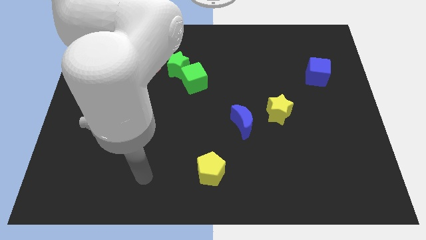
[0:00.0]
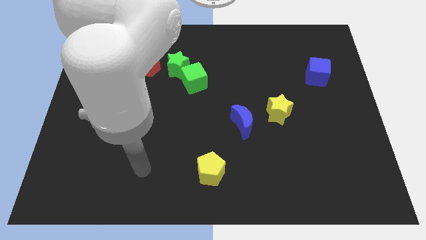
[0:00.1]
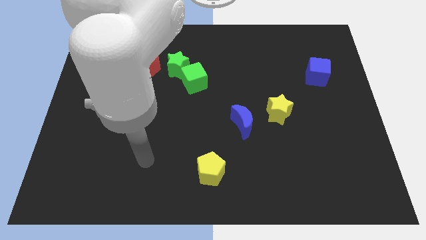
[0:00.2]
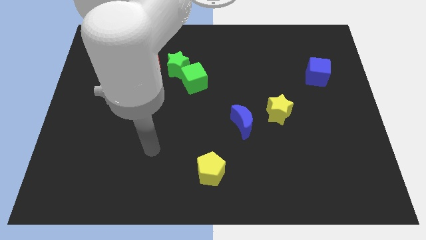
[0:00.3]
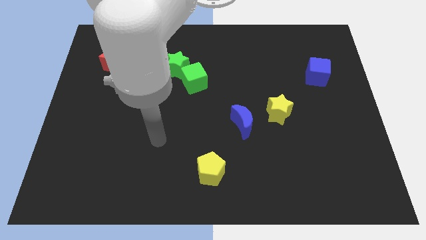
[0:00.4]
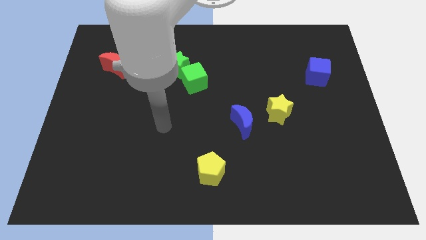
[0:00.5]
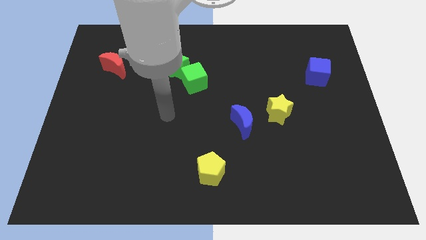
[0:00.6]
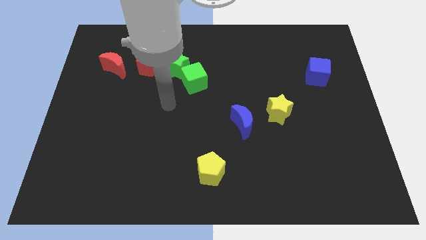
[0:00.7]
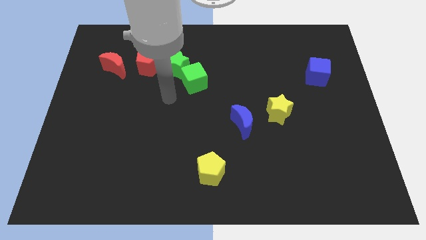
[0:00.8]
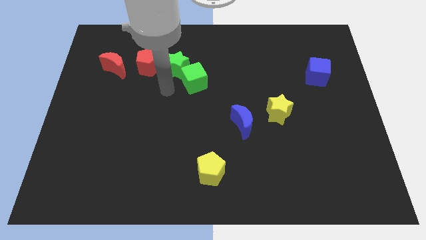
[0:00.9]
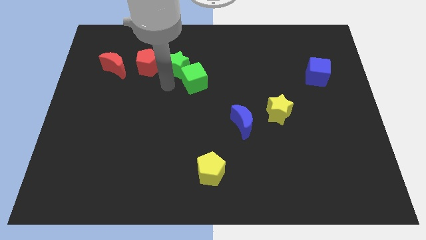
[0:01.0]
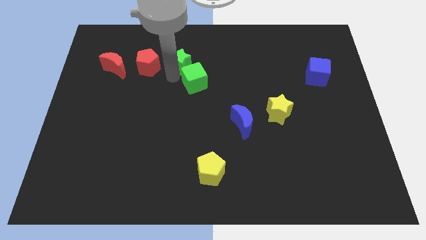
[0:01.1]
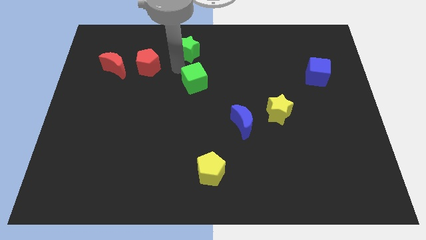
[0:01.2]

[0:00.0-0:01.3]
move the green cube away from the green star

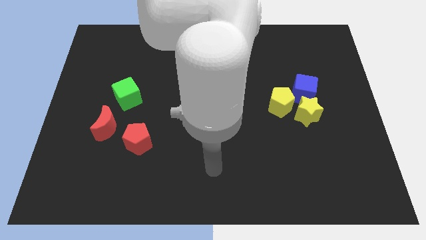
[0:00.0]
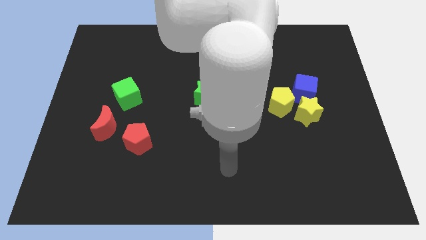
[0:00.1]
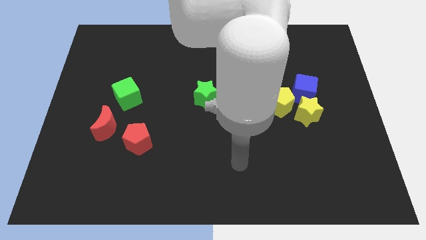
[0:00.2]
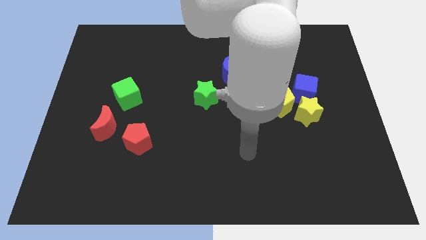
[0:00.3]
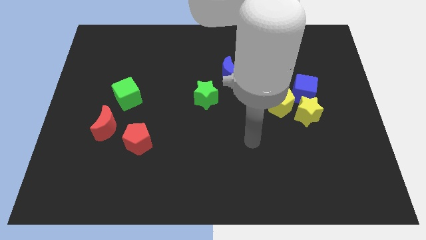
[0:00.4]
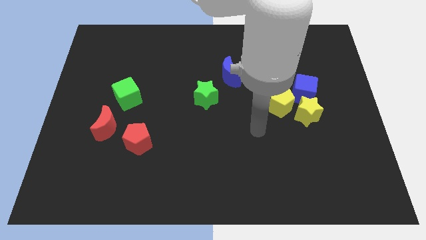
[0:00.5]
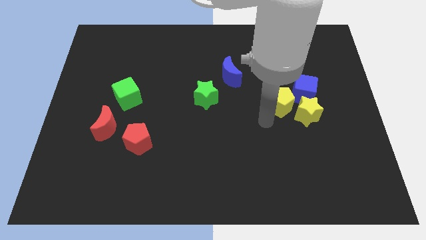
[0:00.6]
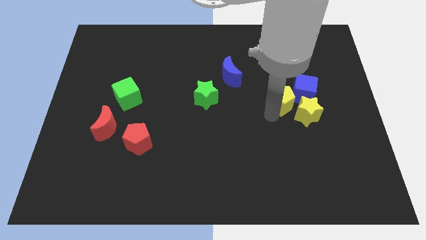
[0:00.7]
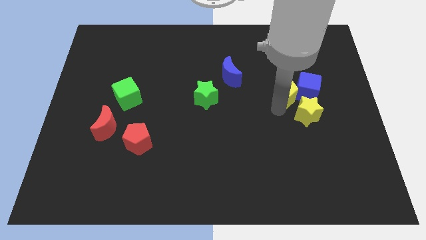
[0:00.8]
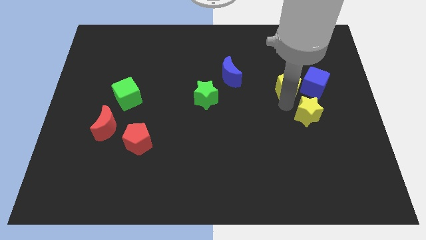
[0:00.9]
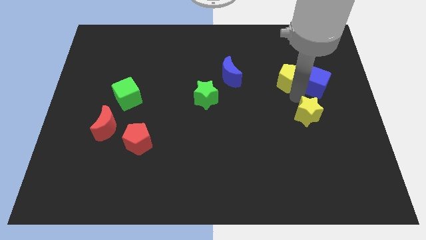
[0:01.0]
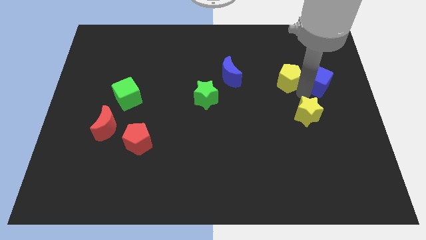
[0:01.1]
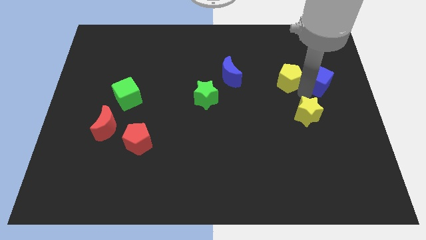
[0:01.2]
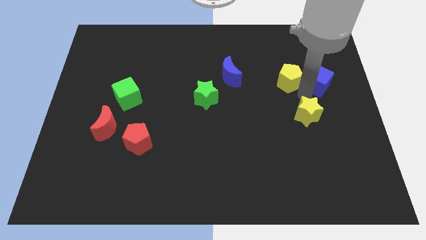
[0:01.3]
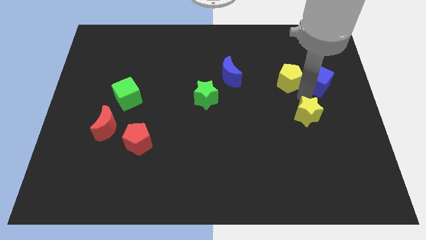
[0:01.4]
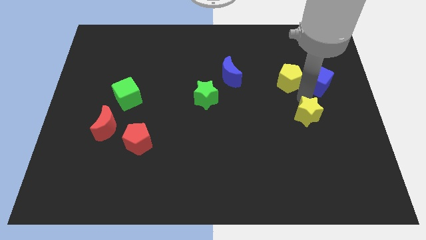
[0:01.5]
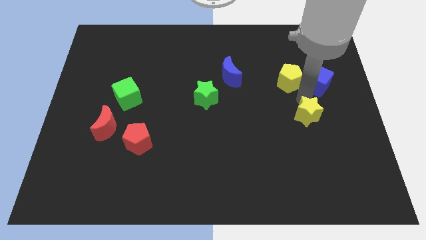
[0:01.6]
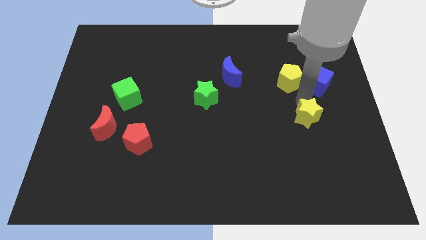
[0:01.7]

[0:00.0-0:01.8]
separate the yellow star from the blue cube and yellow pentagon

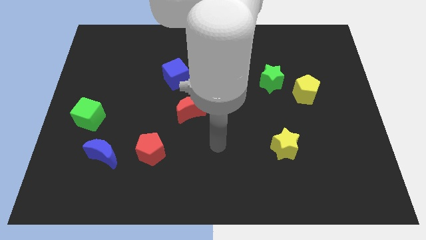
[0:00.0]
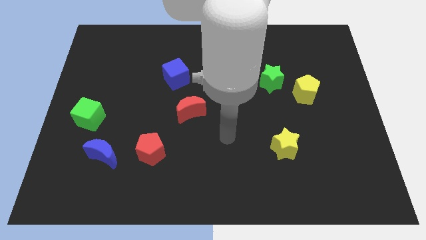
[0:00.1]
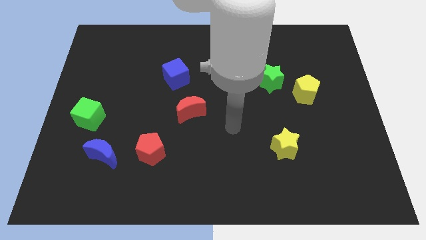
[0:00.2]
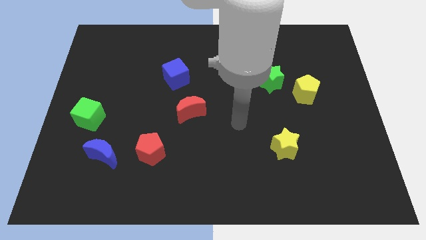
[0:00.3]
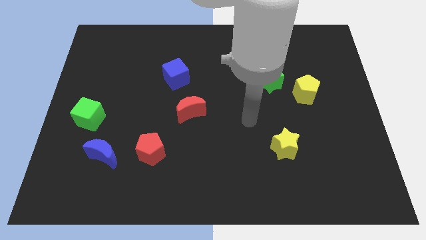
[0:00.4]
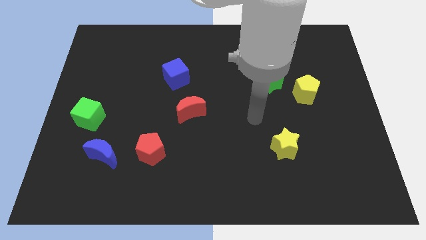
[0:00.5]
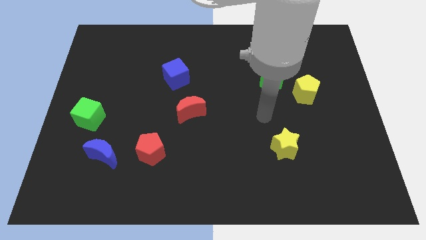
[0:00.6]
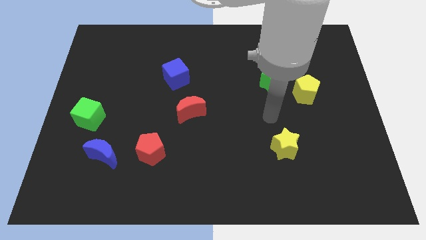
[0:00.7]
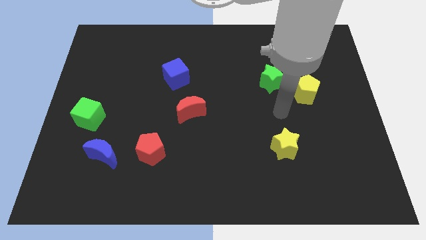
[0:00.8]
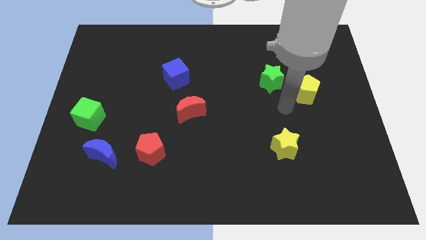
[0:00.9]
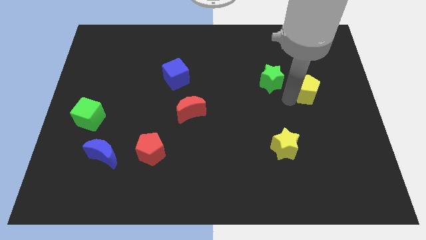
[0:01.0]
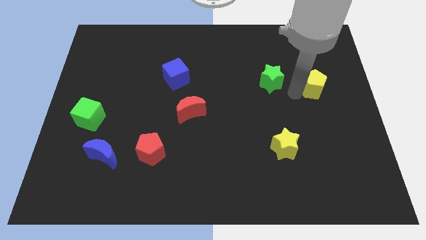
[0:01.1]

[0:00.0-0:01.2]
separate the green star from the yellow pentagon

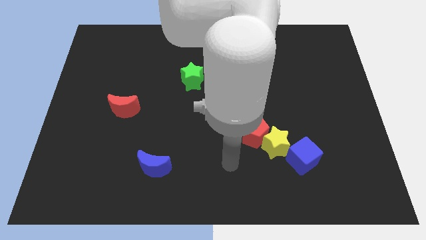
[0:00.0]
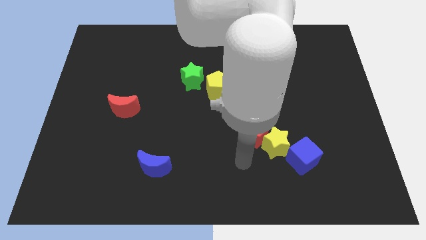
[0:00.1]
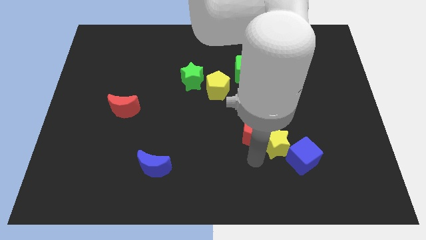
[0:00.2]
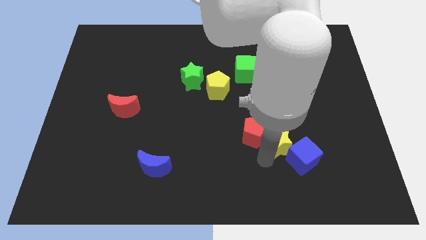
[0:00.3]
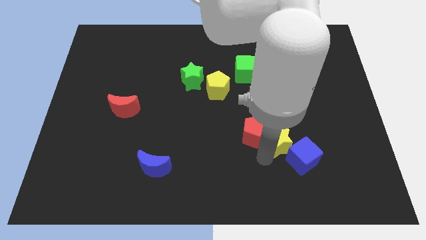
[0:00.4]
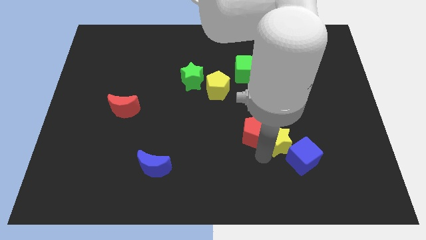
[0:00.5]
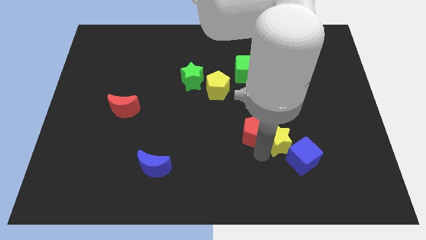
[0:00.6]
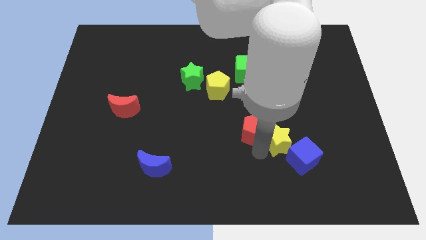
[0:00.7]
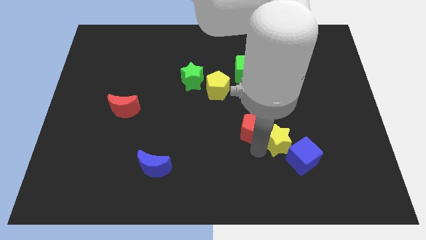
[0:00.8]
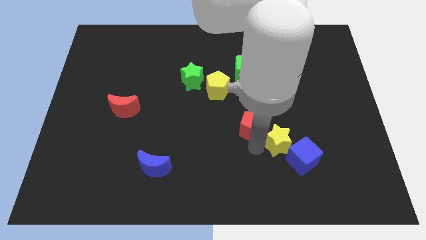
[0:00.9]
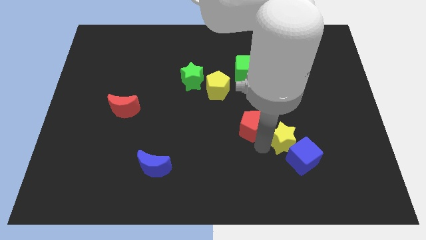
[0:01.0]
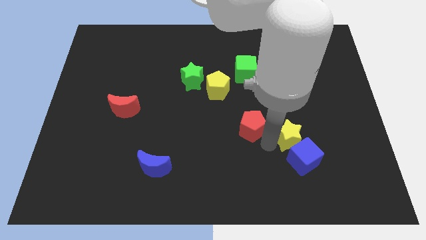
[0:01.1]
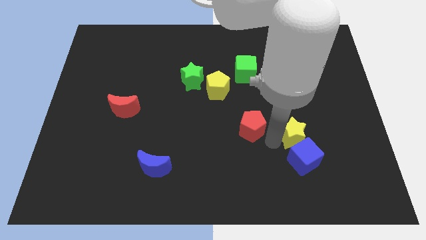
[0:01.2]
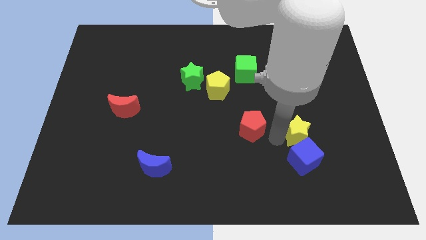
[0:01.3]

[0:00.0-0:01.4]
pull the red pentagon apart from the yellow star

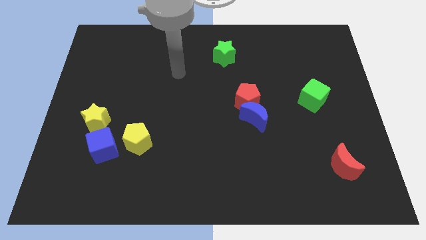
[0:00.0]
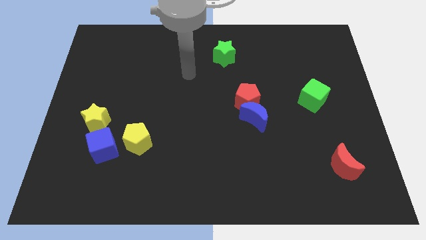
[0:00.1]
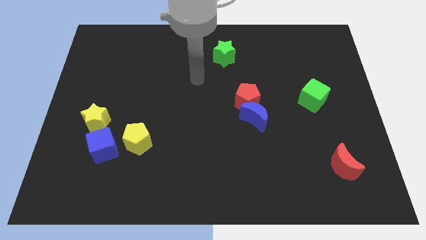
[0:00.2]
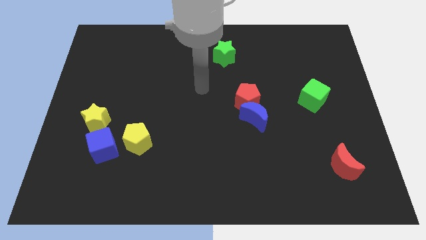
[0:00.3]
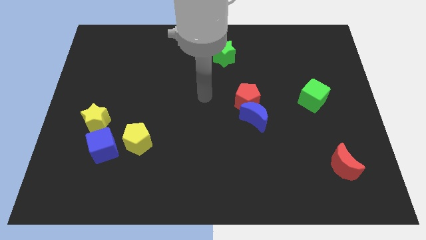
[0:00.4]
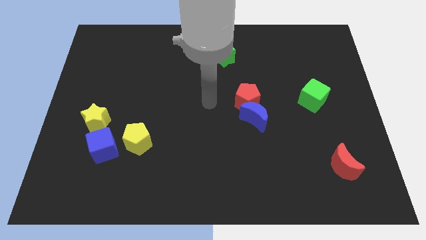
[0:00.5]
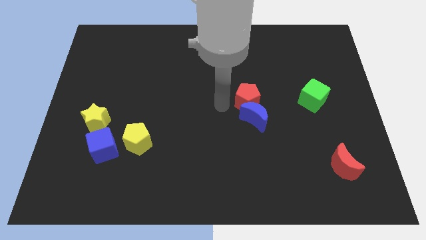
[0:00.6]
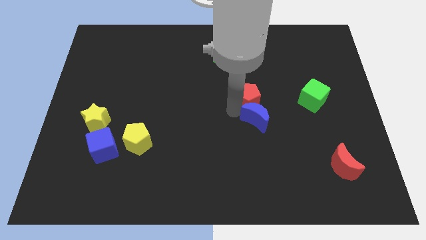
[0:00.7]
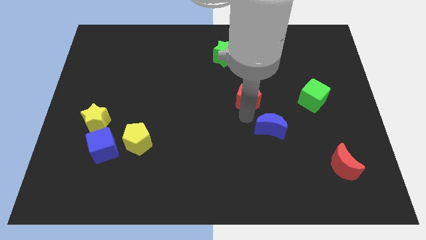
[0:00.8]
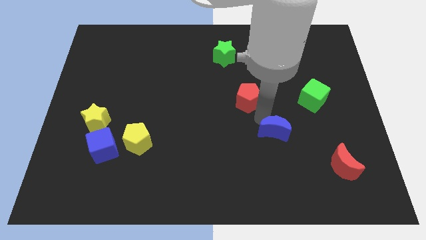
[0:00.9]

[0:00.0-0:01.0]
move the red pentagon away from the blue moon

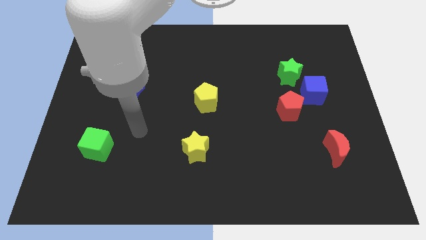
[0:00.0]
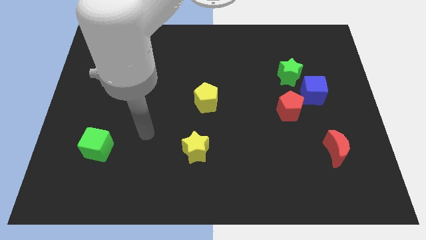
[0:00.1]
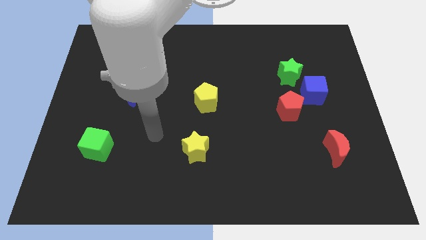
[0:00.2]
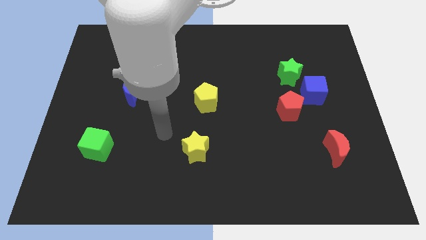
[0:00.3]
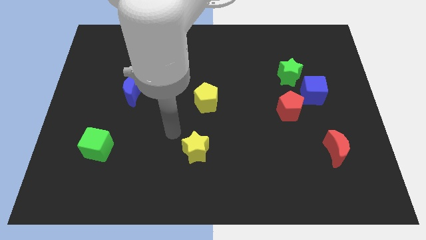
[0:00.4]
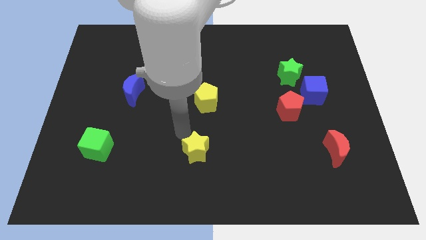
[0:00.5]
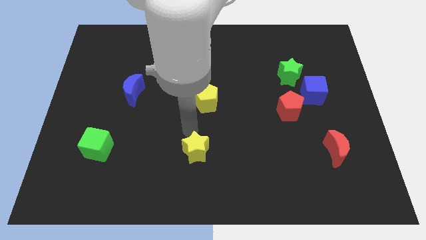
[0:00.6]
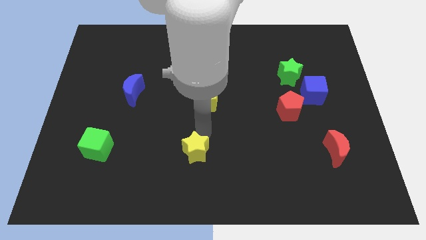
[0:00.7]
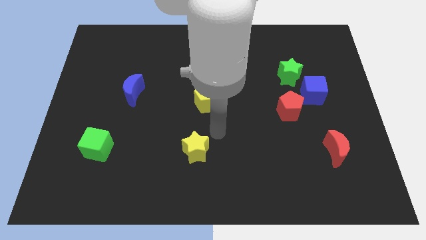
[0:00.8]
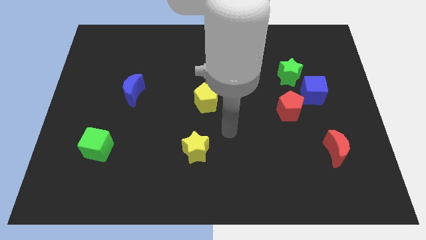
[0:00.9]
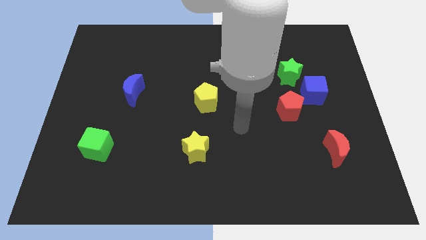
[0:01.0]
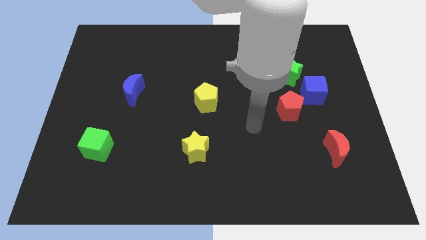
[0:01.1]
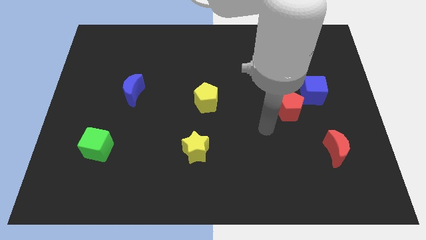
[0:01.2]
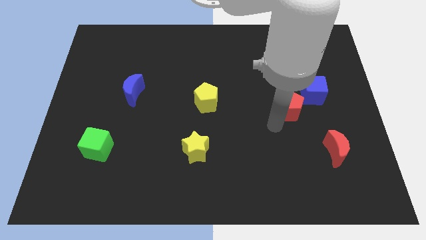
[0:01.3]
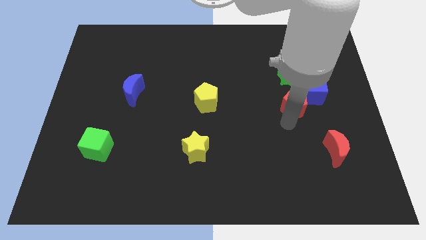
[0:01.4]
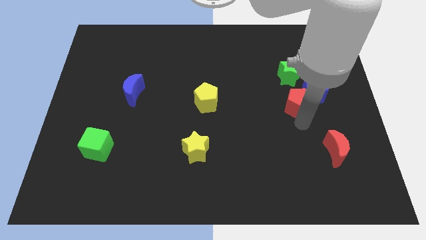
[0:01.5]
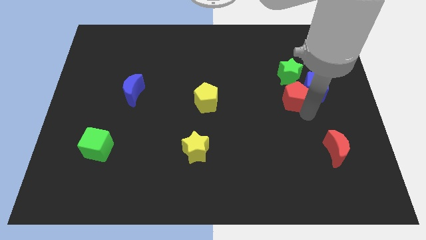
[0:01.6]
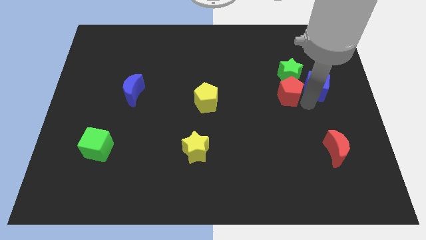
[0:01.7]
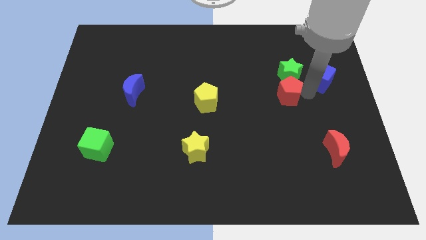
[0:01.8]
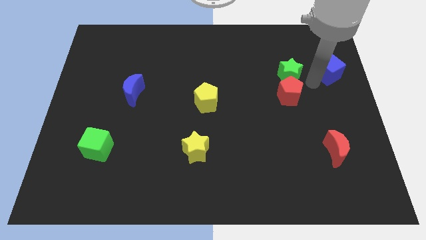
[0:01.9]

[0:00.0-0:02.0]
move the green star away from the blue cube

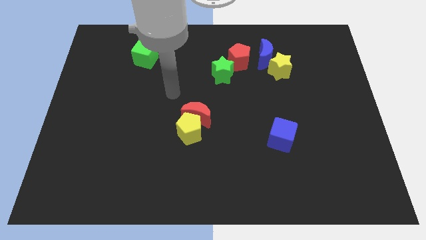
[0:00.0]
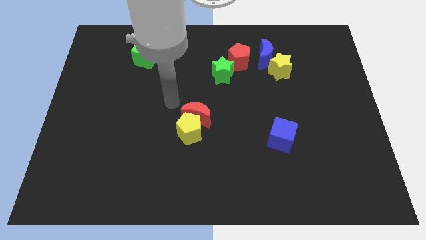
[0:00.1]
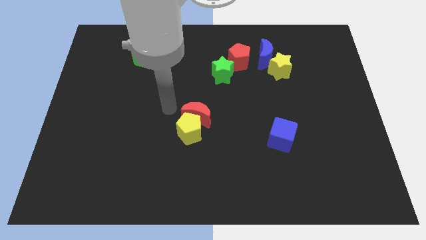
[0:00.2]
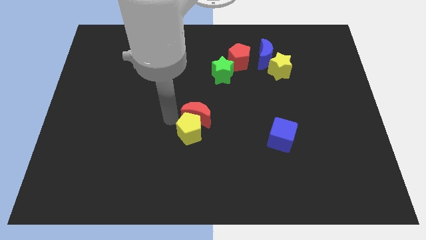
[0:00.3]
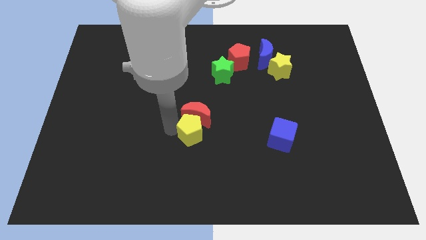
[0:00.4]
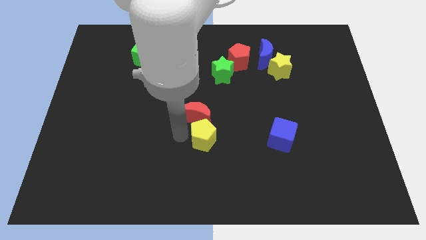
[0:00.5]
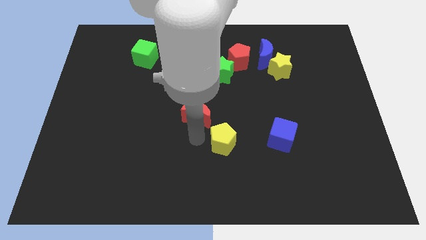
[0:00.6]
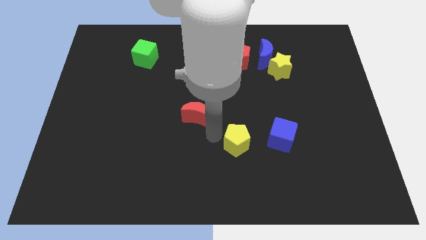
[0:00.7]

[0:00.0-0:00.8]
separate the red moon from the yellow pentagon
